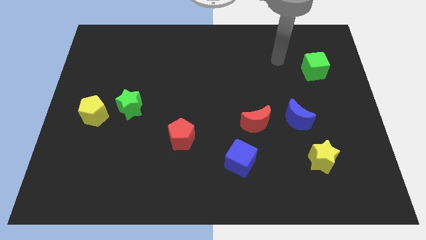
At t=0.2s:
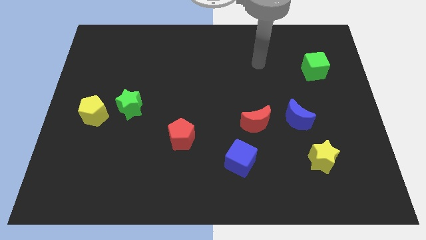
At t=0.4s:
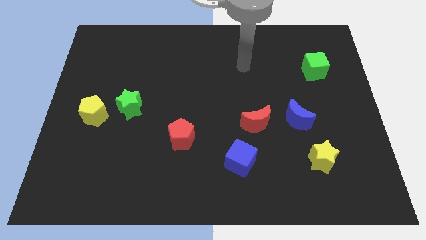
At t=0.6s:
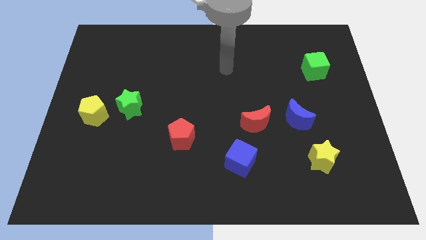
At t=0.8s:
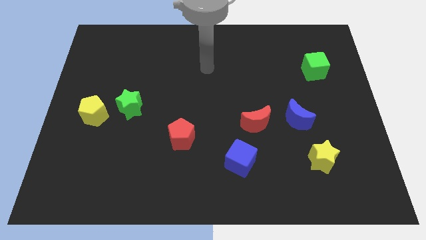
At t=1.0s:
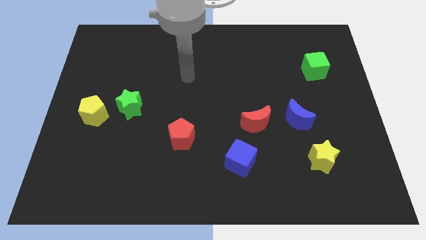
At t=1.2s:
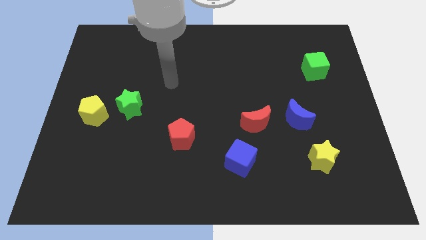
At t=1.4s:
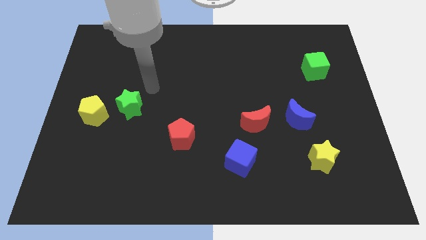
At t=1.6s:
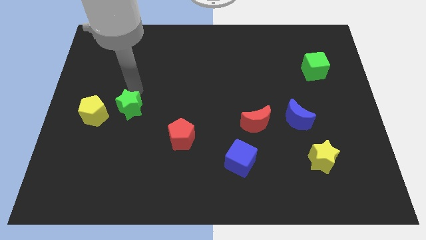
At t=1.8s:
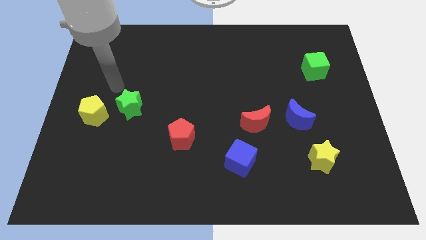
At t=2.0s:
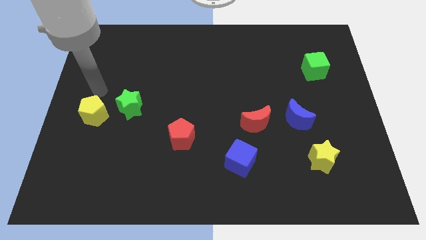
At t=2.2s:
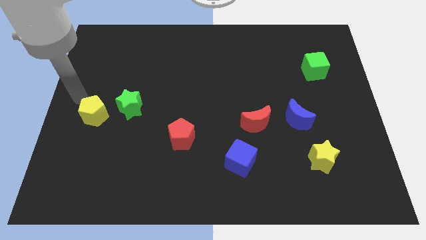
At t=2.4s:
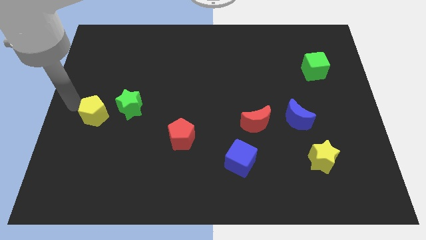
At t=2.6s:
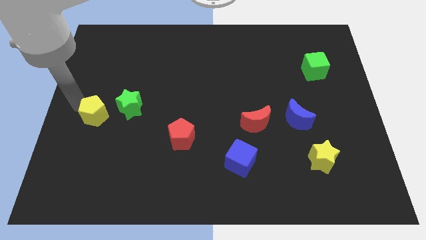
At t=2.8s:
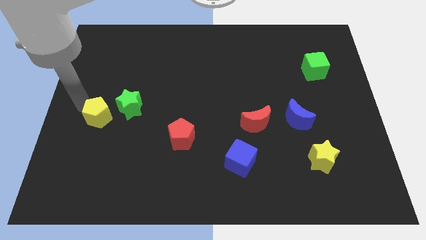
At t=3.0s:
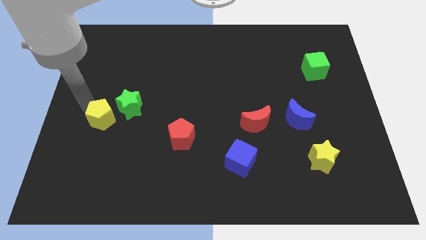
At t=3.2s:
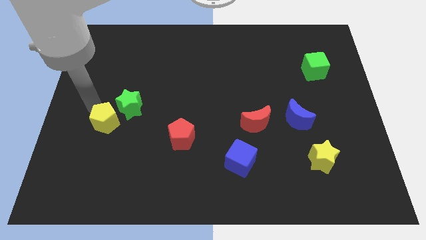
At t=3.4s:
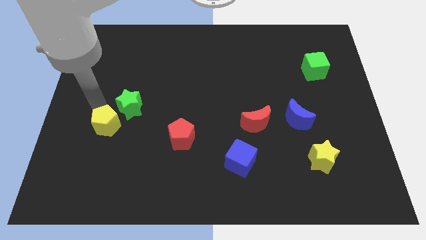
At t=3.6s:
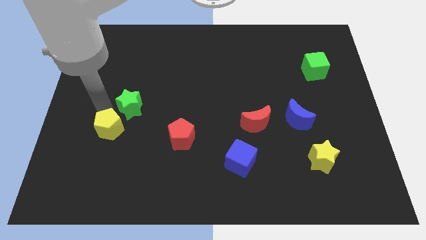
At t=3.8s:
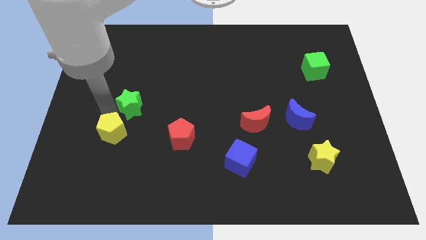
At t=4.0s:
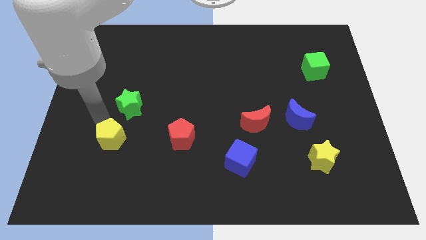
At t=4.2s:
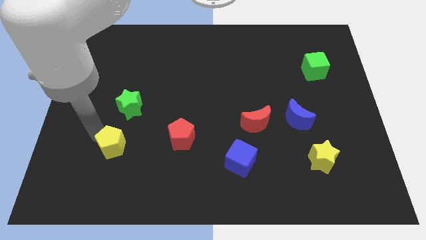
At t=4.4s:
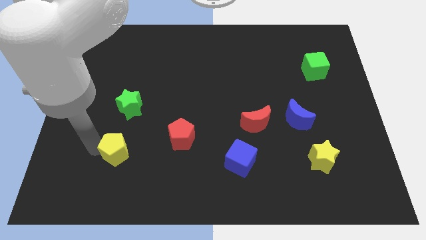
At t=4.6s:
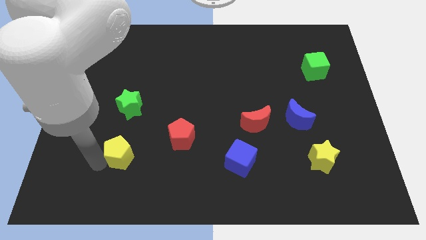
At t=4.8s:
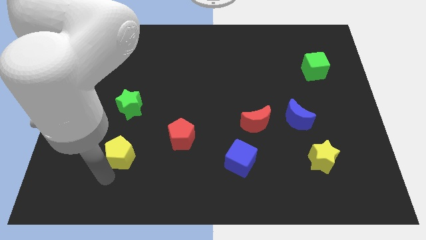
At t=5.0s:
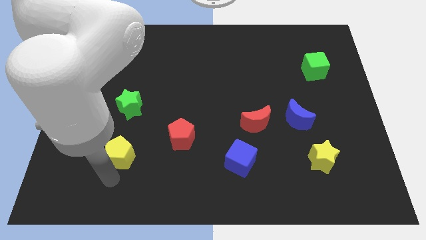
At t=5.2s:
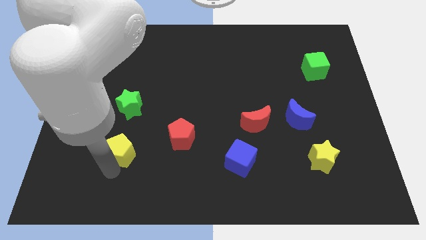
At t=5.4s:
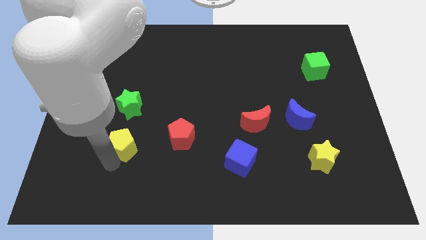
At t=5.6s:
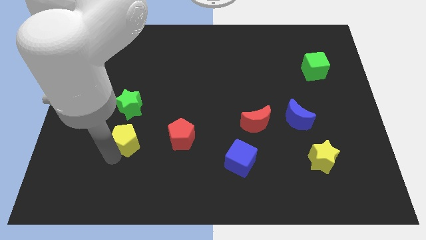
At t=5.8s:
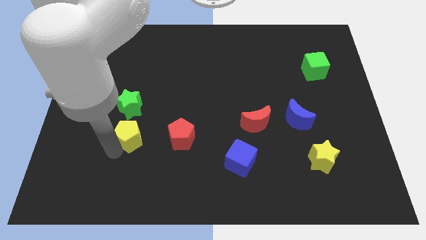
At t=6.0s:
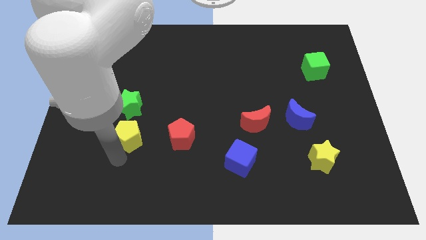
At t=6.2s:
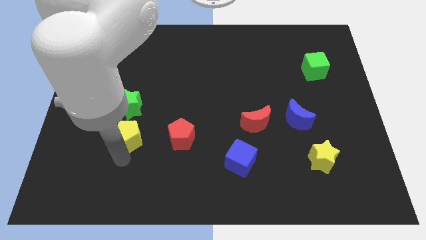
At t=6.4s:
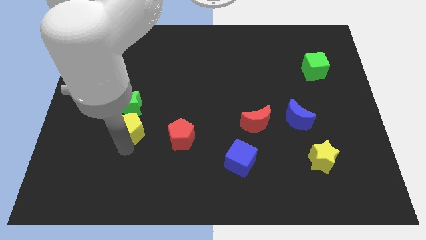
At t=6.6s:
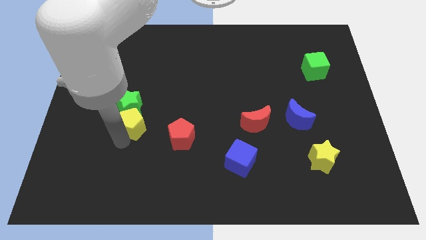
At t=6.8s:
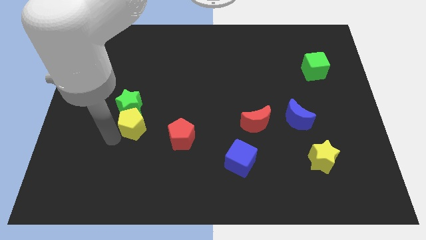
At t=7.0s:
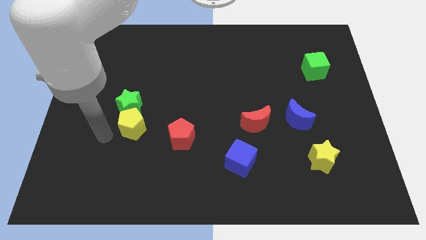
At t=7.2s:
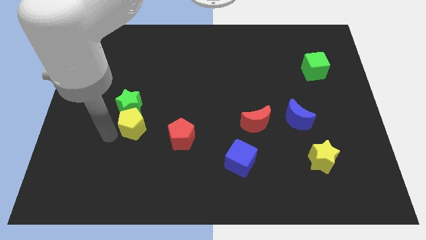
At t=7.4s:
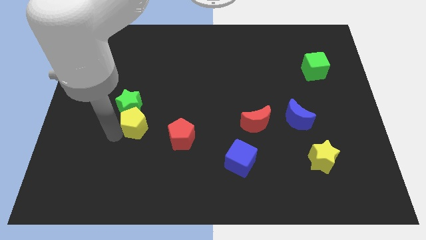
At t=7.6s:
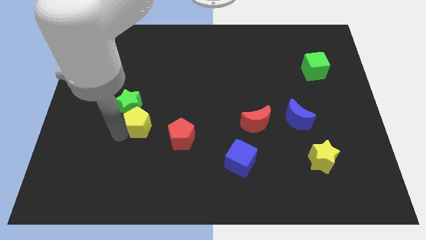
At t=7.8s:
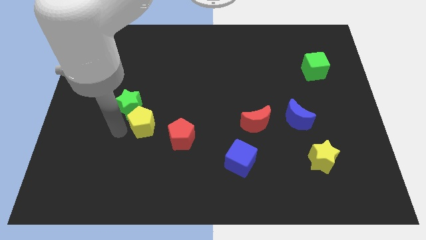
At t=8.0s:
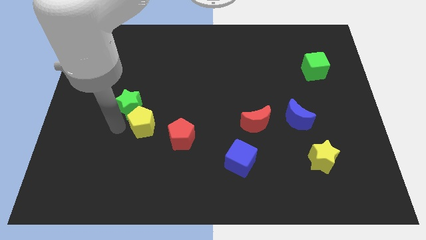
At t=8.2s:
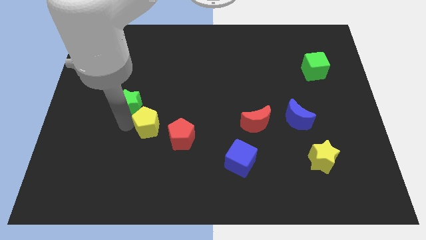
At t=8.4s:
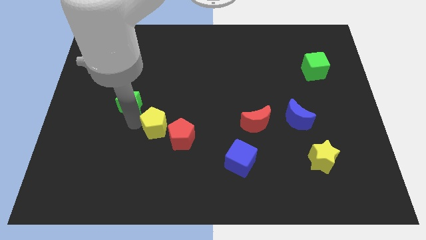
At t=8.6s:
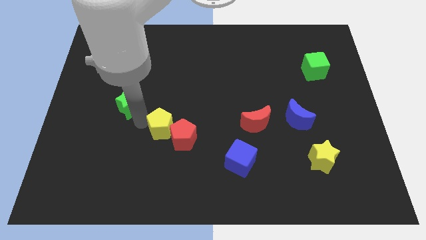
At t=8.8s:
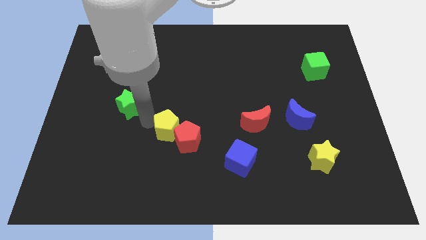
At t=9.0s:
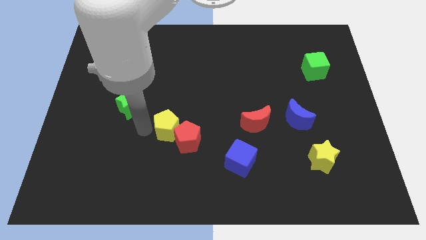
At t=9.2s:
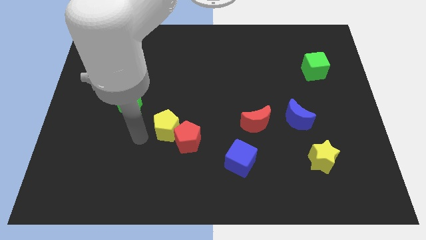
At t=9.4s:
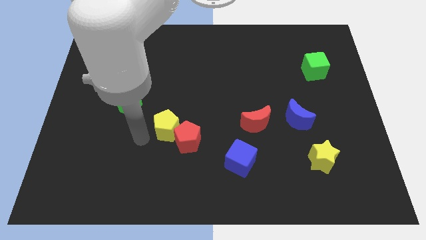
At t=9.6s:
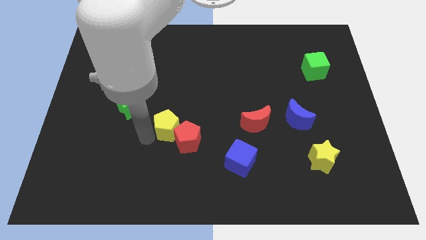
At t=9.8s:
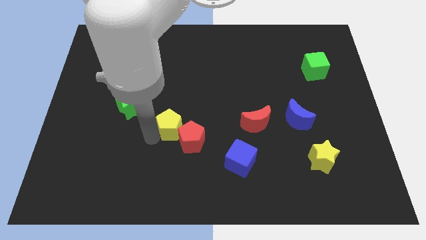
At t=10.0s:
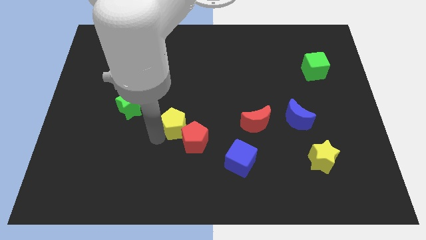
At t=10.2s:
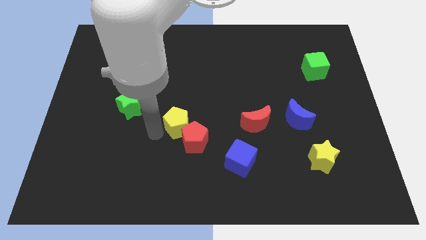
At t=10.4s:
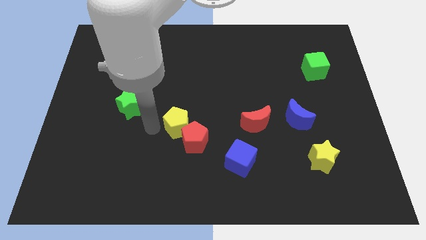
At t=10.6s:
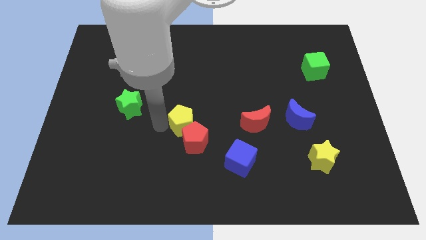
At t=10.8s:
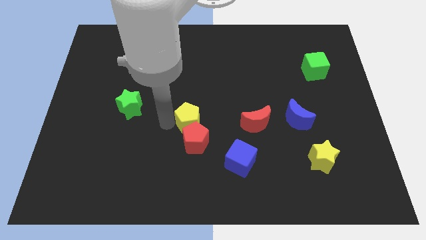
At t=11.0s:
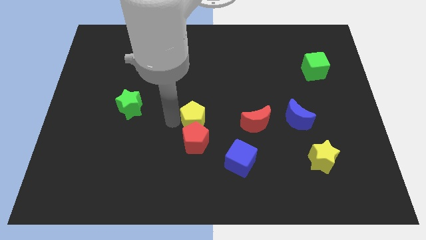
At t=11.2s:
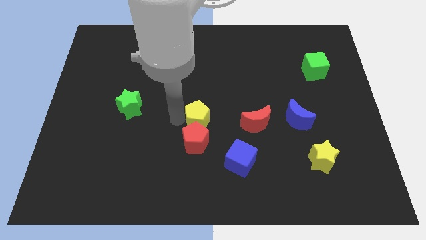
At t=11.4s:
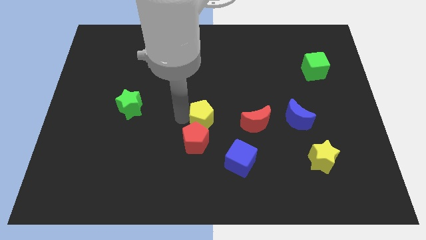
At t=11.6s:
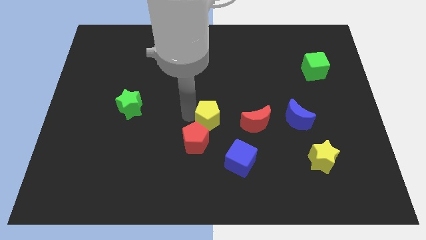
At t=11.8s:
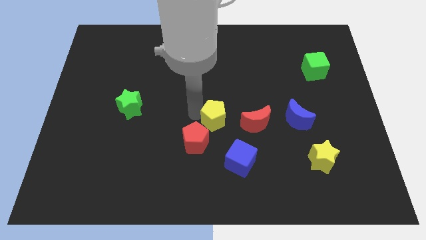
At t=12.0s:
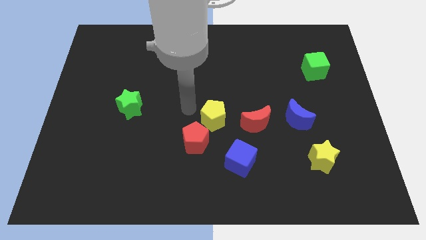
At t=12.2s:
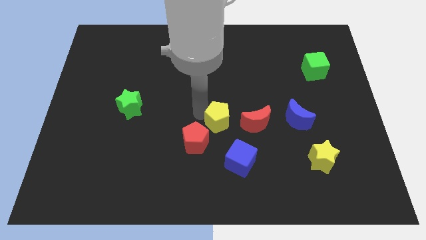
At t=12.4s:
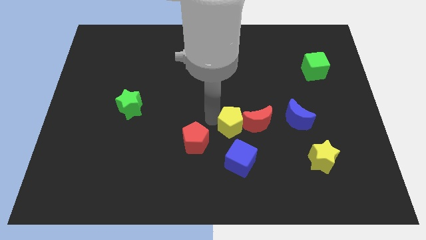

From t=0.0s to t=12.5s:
push the yellow pentagon next to the red moon

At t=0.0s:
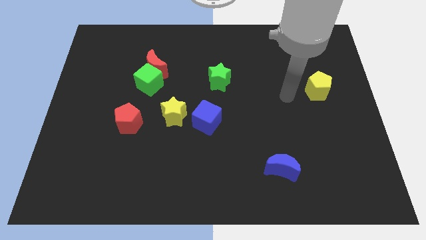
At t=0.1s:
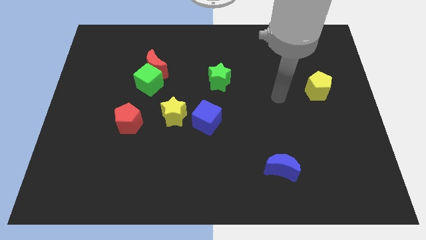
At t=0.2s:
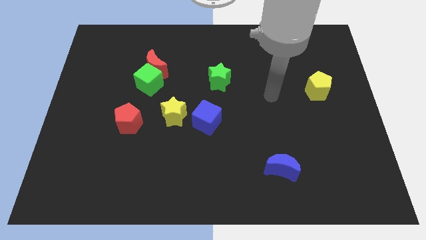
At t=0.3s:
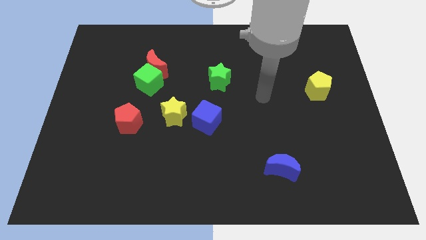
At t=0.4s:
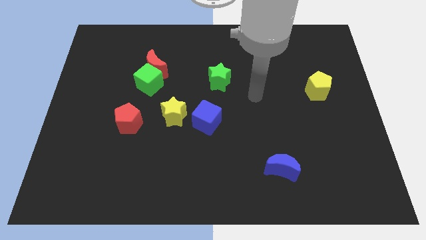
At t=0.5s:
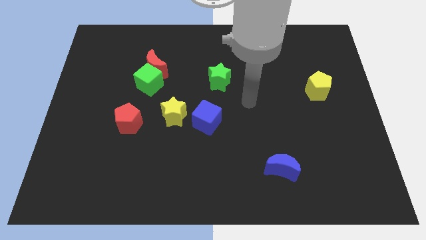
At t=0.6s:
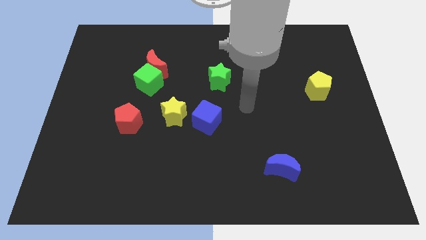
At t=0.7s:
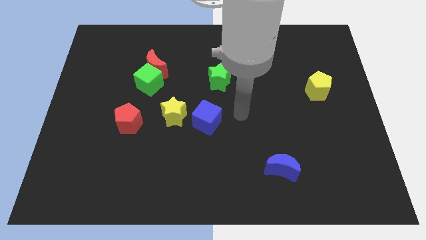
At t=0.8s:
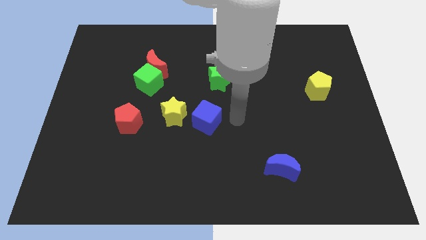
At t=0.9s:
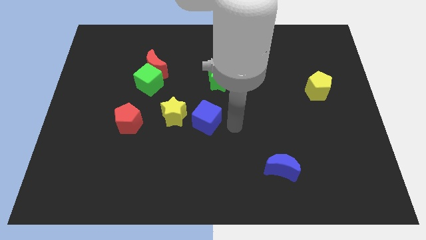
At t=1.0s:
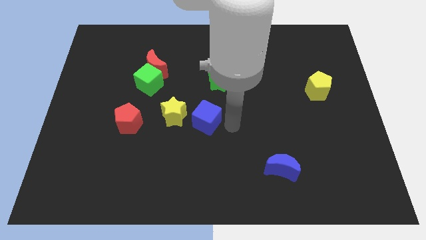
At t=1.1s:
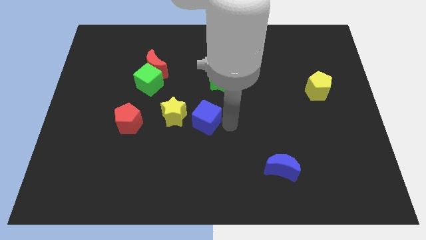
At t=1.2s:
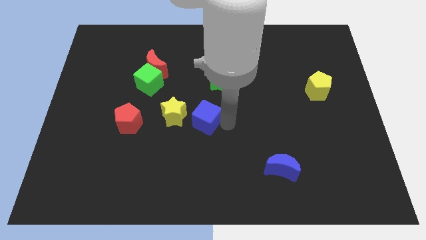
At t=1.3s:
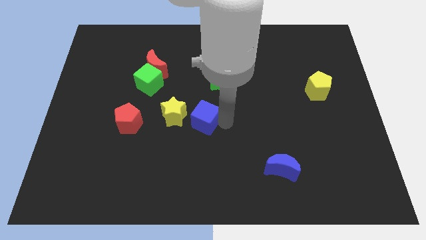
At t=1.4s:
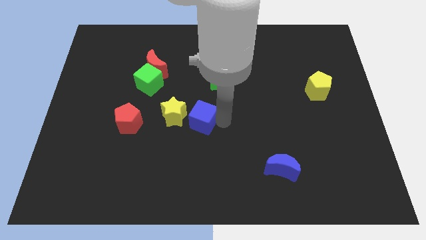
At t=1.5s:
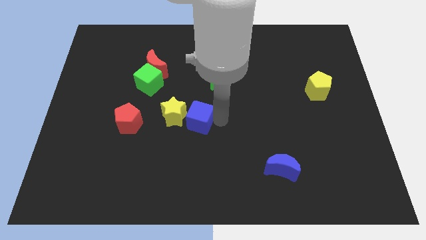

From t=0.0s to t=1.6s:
push the blue cube towards the yellow star
